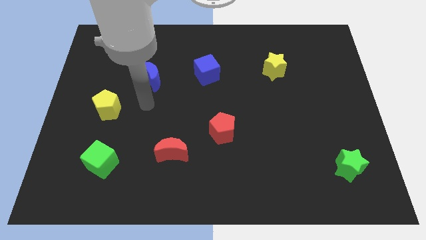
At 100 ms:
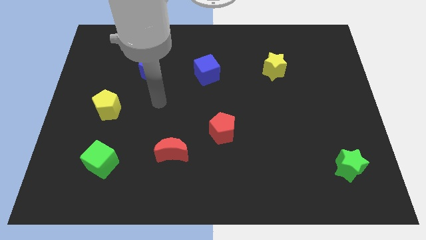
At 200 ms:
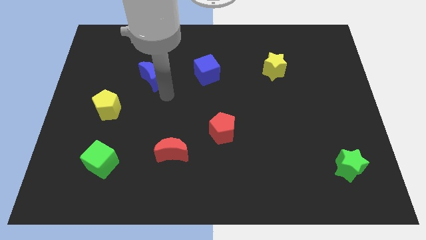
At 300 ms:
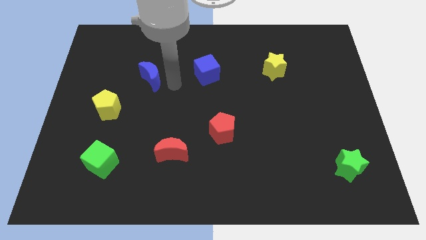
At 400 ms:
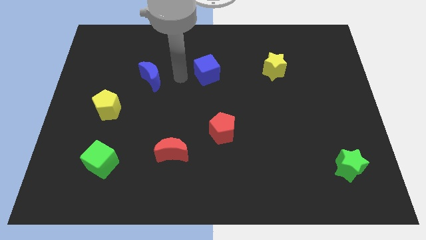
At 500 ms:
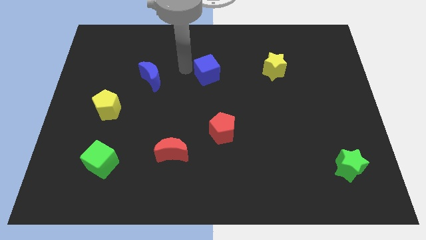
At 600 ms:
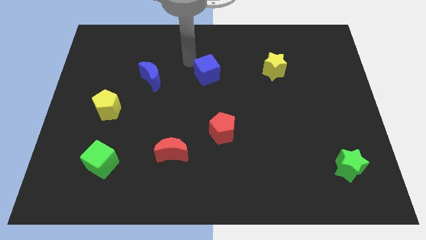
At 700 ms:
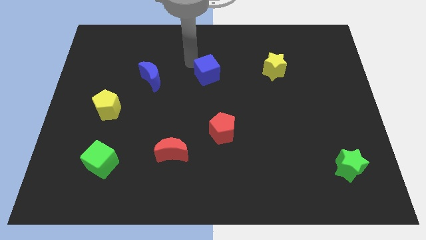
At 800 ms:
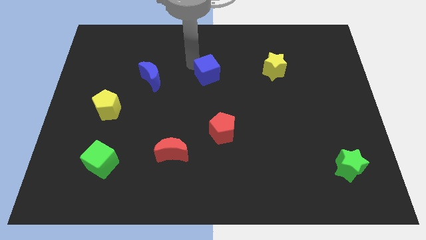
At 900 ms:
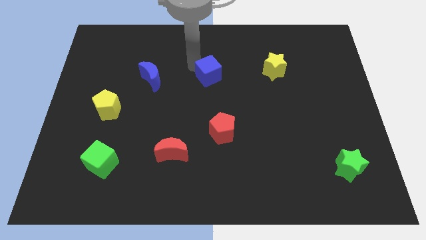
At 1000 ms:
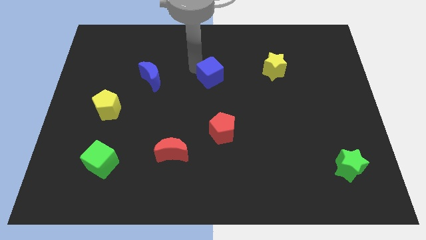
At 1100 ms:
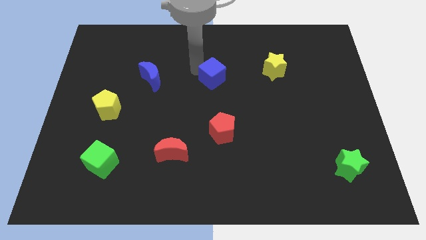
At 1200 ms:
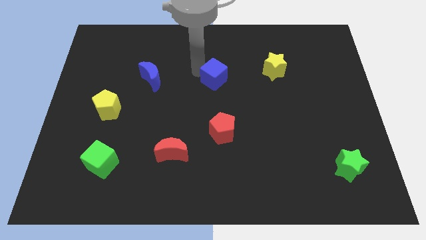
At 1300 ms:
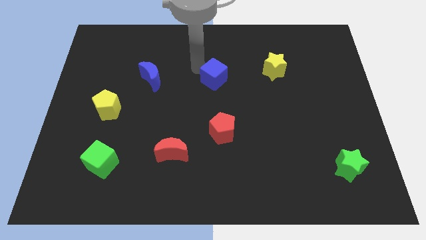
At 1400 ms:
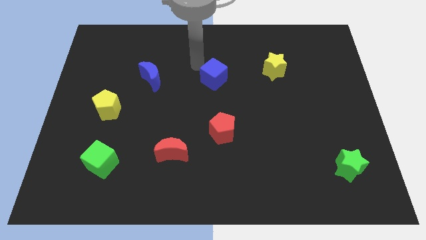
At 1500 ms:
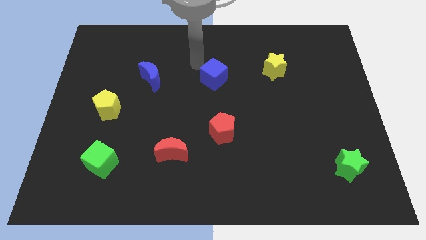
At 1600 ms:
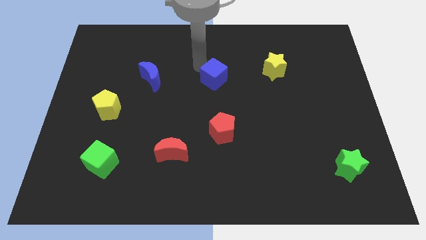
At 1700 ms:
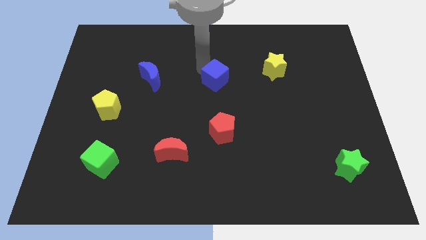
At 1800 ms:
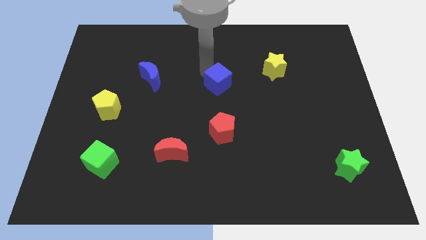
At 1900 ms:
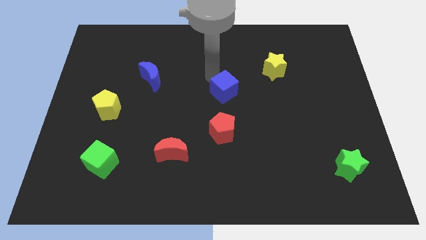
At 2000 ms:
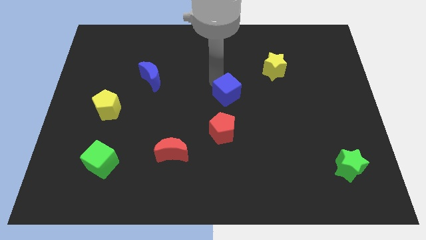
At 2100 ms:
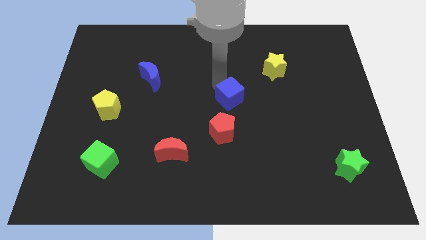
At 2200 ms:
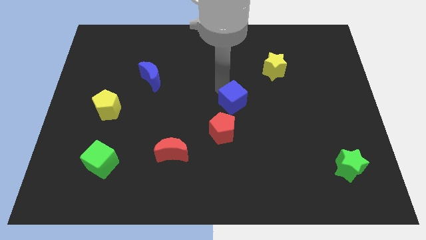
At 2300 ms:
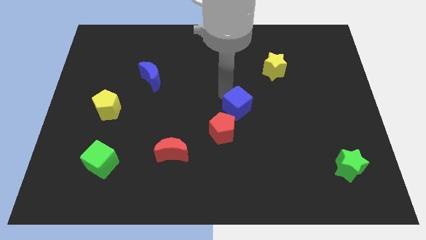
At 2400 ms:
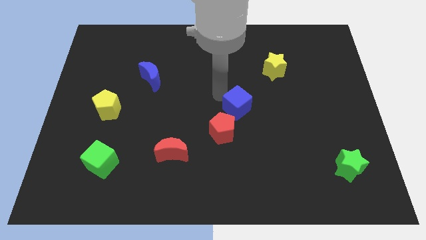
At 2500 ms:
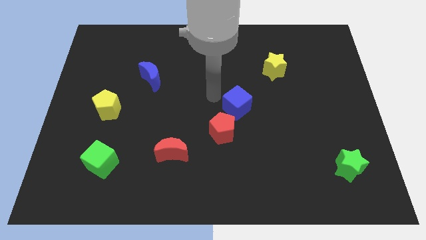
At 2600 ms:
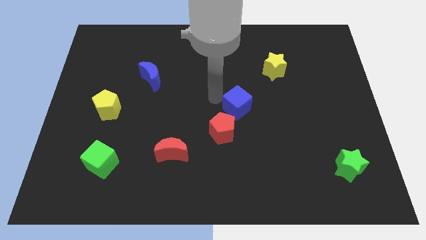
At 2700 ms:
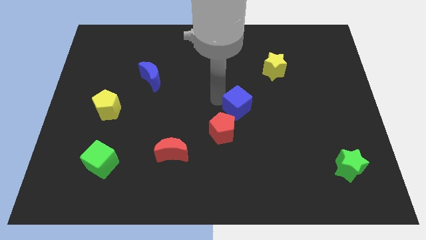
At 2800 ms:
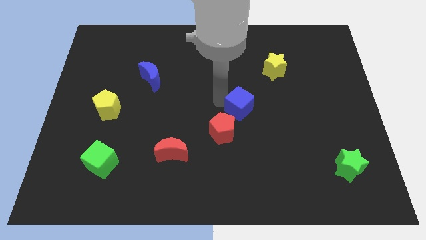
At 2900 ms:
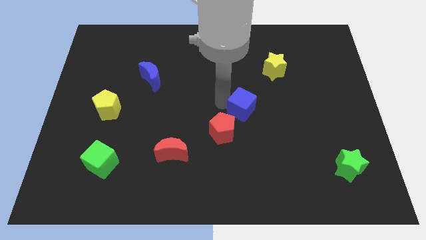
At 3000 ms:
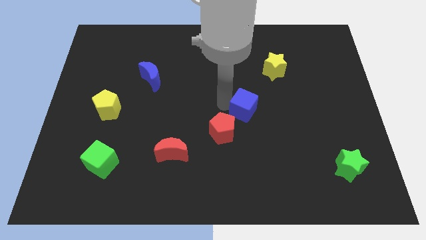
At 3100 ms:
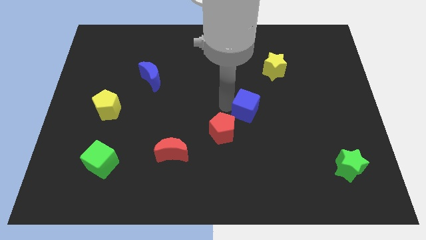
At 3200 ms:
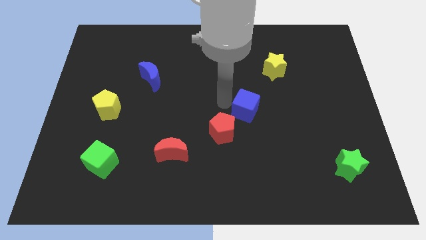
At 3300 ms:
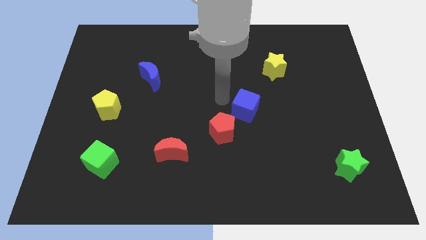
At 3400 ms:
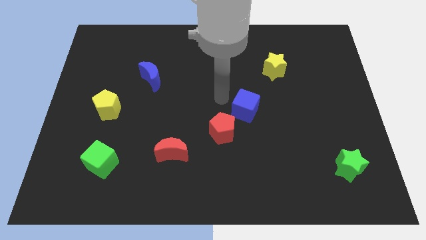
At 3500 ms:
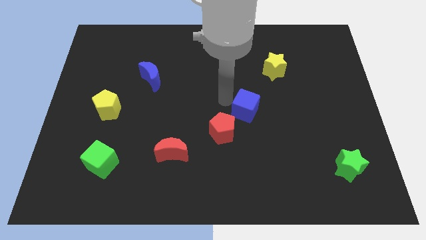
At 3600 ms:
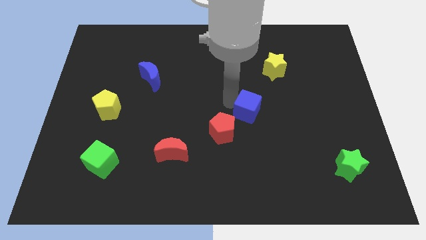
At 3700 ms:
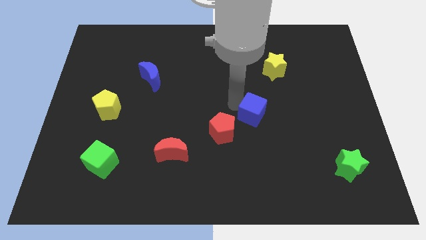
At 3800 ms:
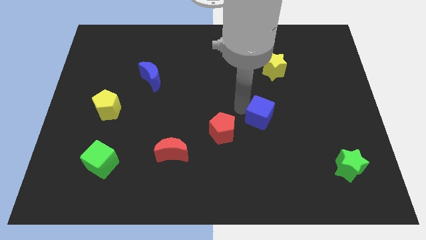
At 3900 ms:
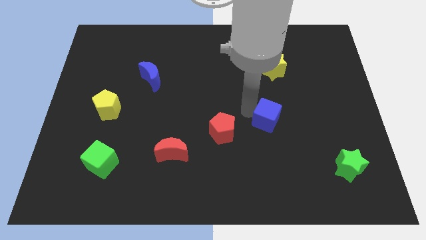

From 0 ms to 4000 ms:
move the blue cube downwards and right

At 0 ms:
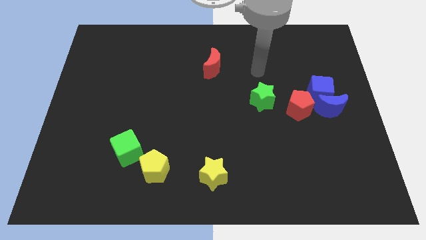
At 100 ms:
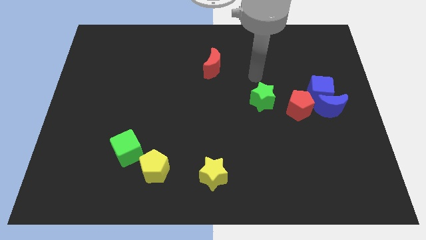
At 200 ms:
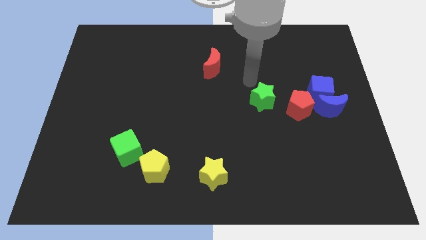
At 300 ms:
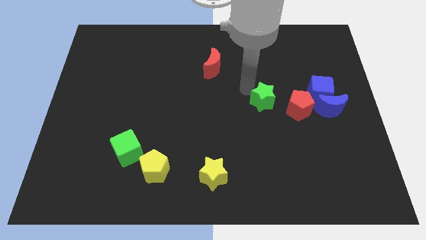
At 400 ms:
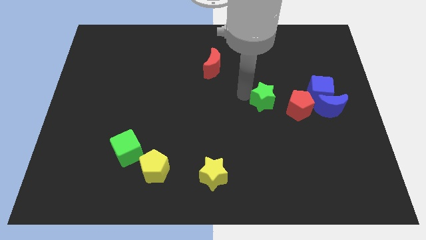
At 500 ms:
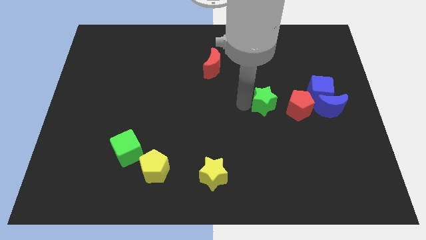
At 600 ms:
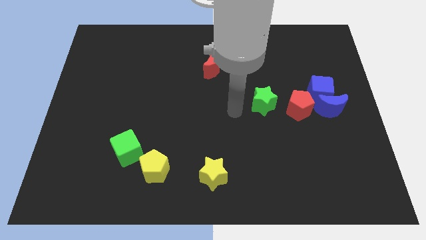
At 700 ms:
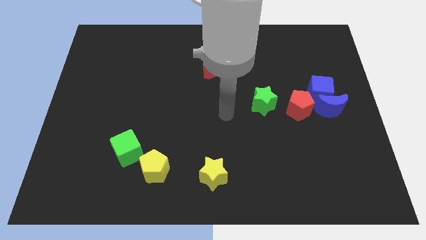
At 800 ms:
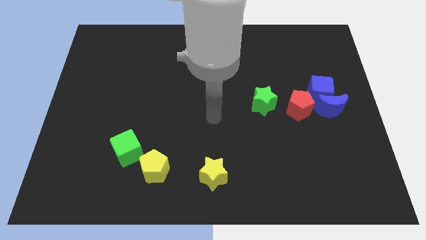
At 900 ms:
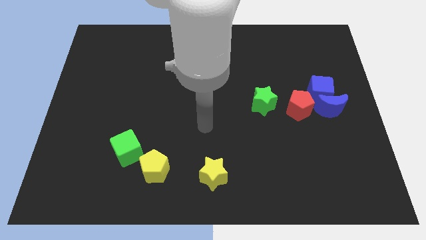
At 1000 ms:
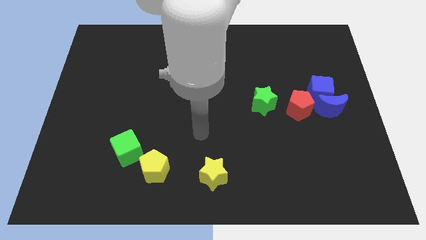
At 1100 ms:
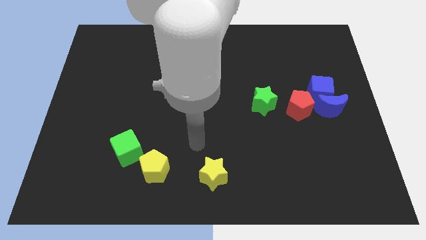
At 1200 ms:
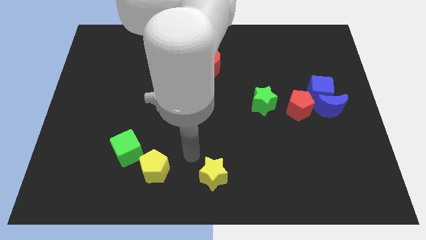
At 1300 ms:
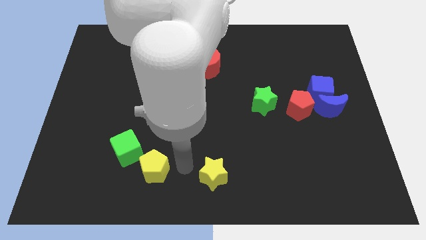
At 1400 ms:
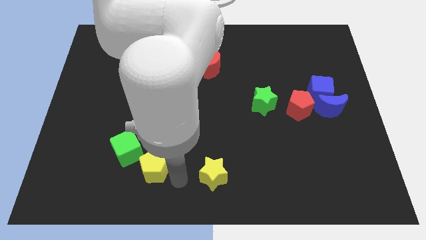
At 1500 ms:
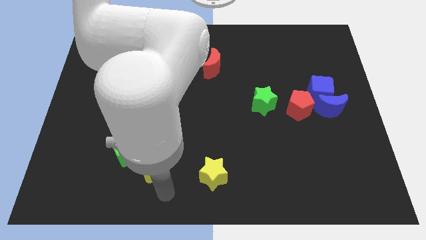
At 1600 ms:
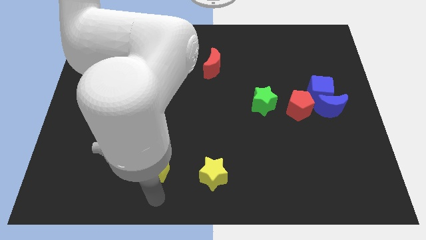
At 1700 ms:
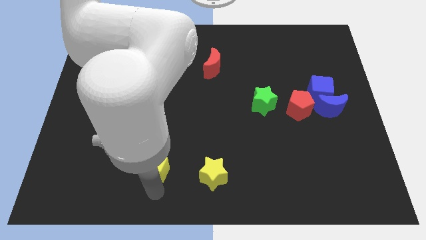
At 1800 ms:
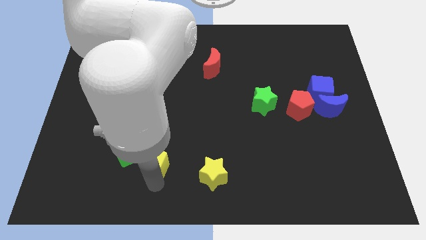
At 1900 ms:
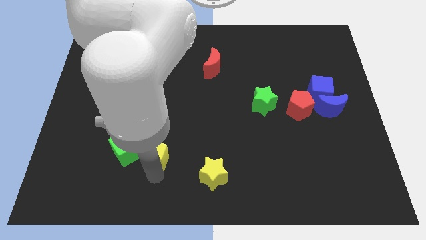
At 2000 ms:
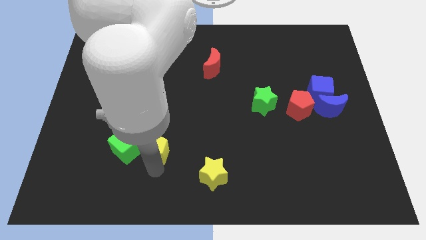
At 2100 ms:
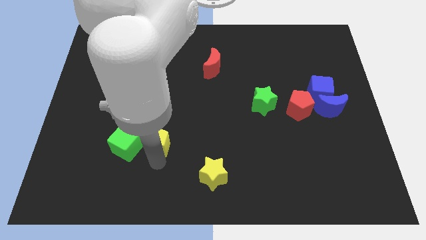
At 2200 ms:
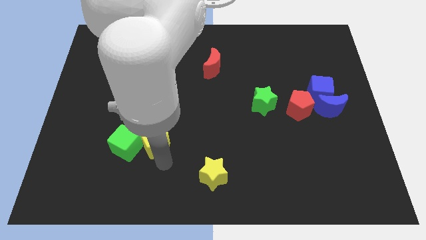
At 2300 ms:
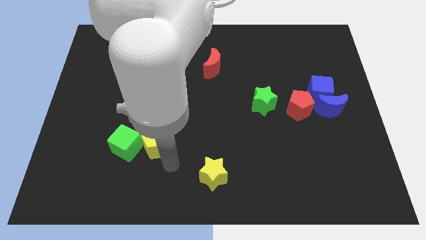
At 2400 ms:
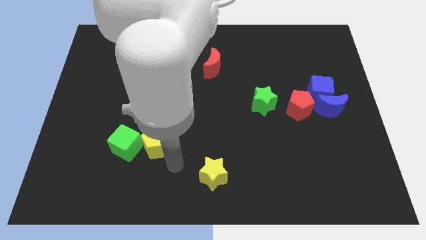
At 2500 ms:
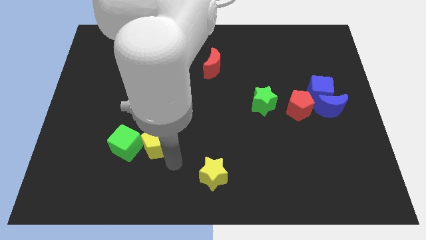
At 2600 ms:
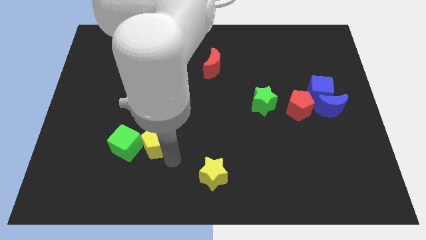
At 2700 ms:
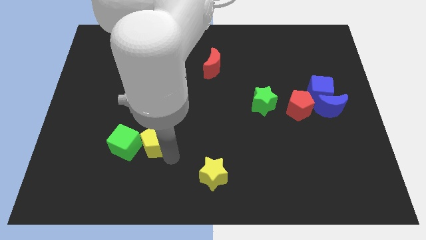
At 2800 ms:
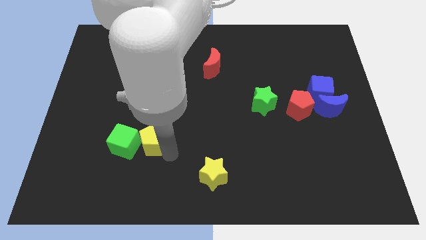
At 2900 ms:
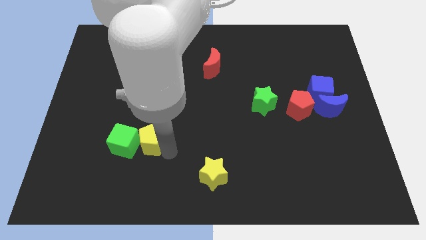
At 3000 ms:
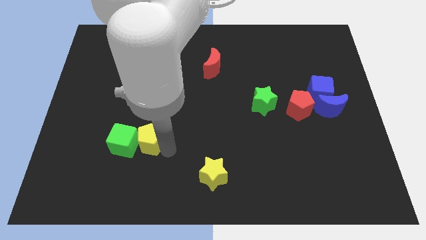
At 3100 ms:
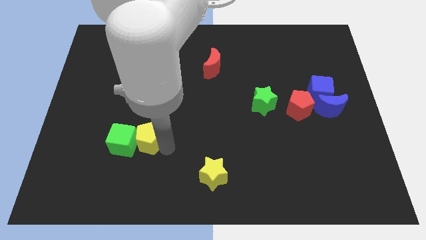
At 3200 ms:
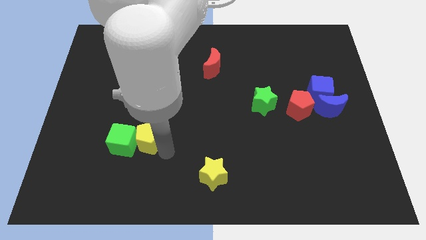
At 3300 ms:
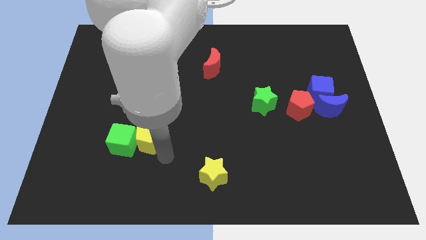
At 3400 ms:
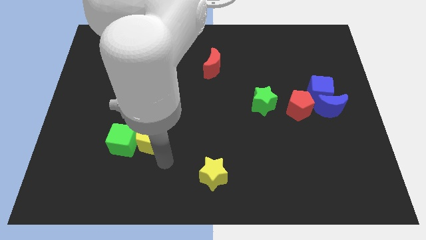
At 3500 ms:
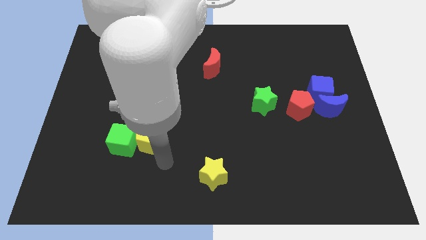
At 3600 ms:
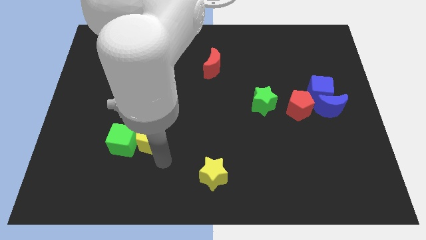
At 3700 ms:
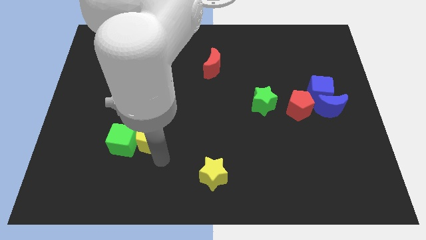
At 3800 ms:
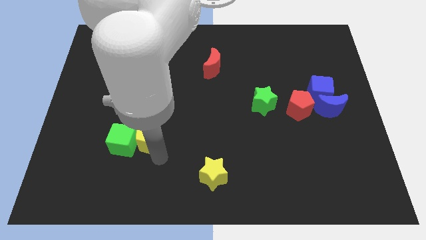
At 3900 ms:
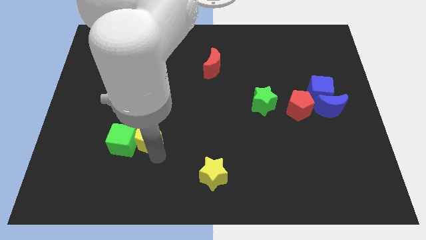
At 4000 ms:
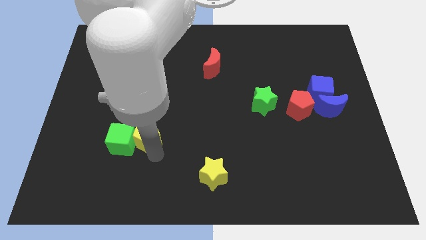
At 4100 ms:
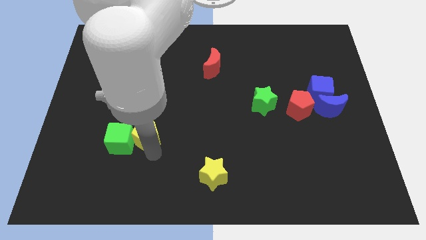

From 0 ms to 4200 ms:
slide the yellow pentagon upwards and to the left slightly
